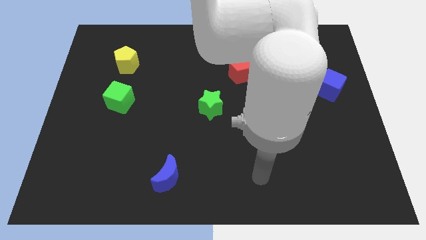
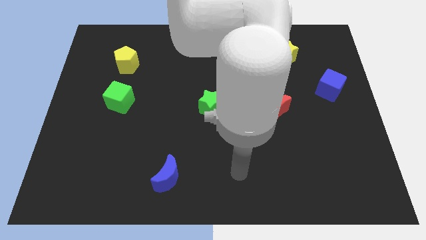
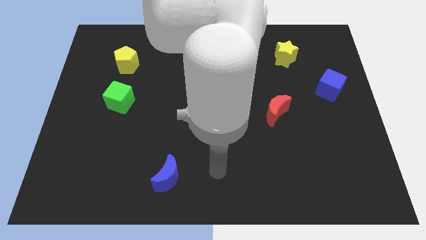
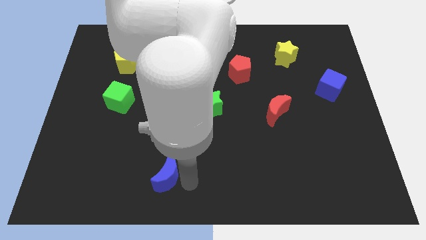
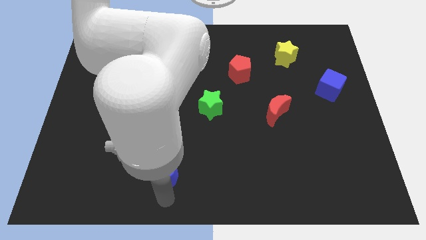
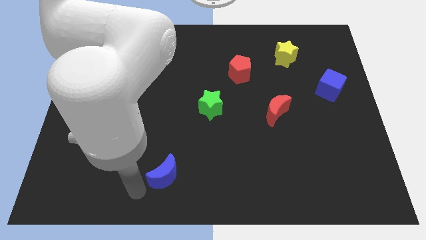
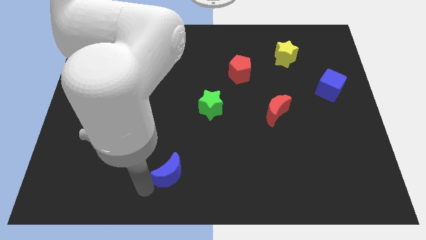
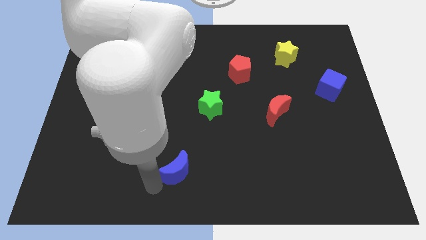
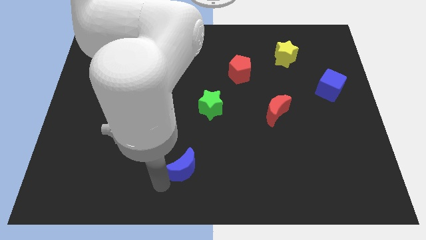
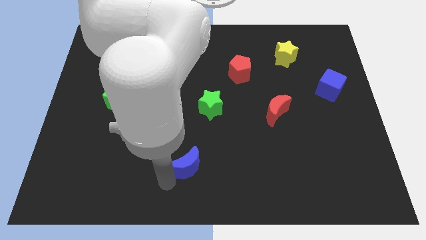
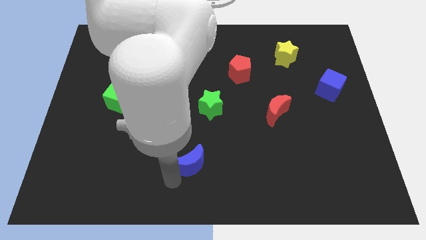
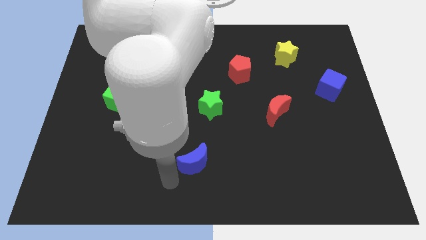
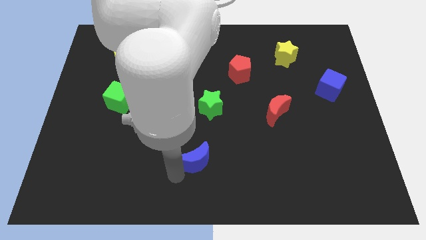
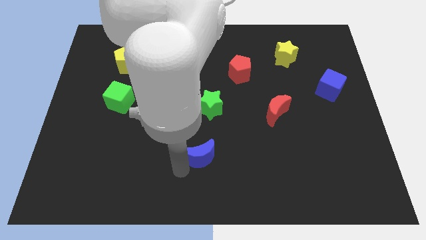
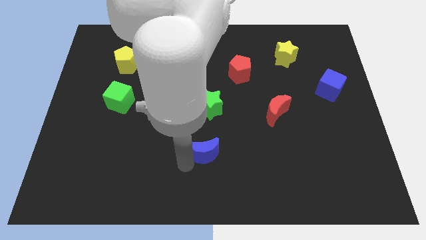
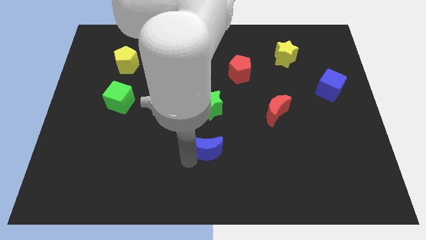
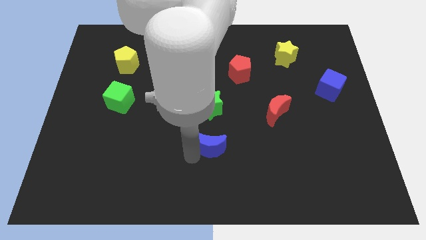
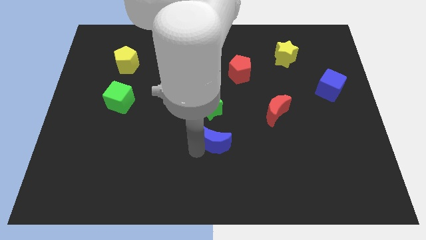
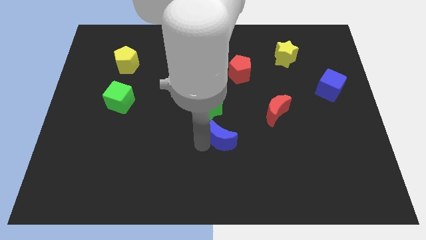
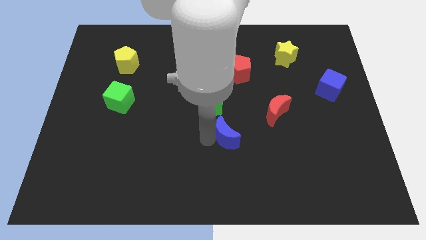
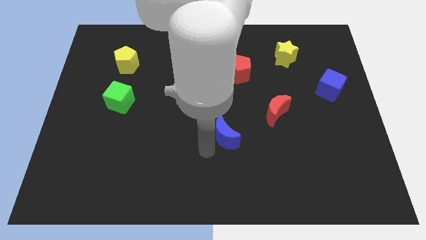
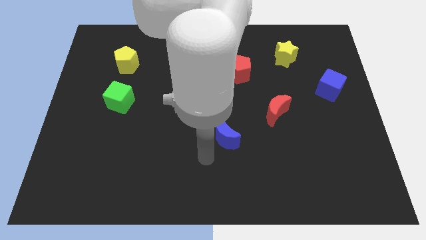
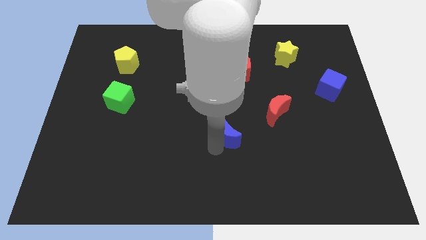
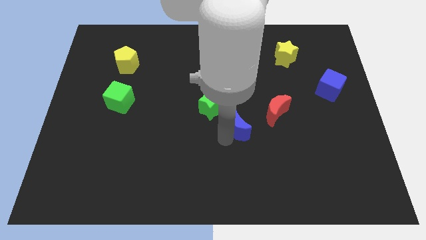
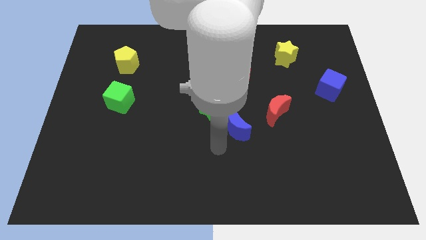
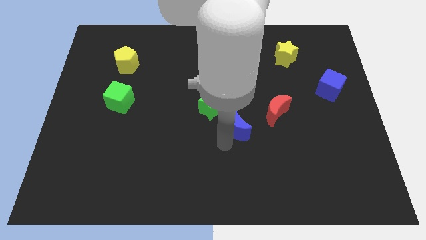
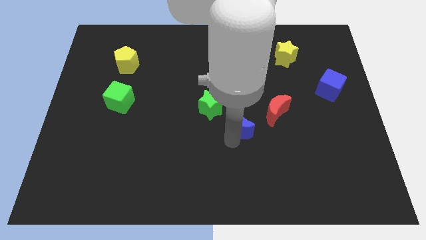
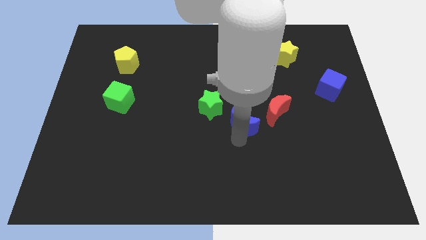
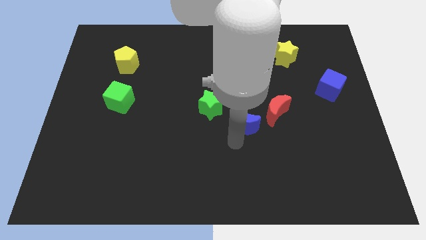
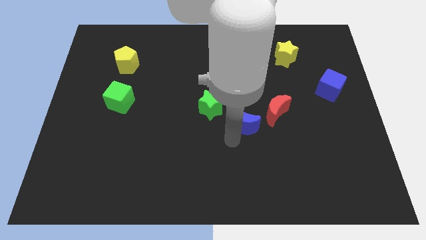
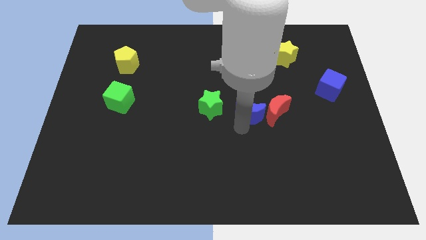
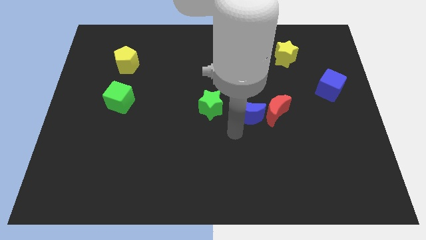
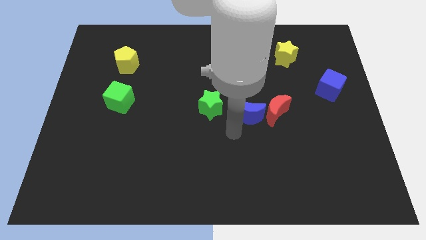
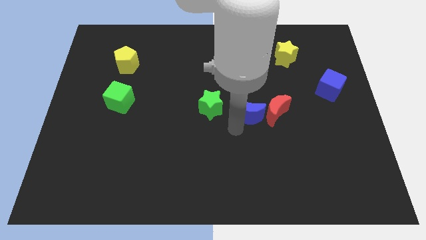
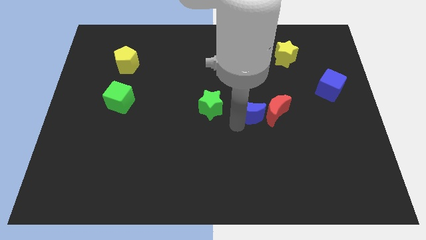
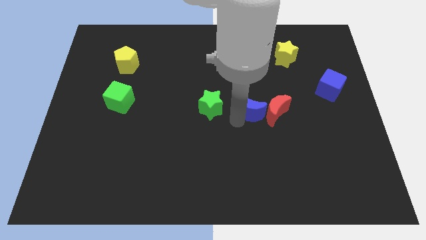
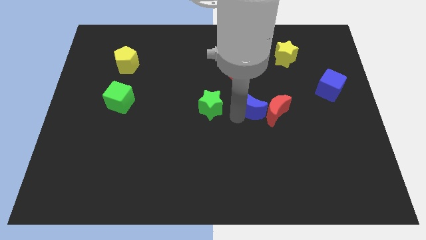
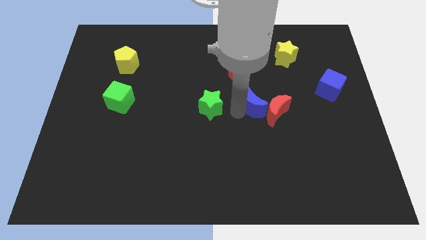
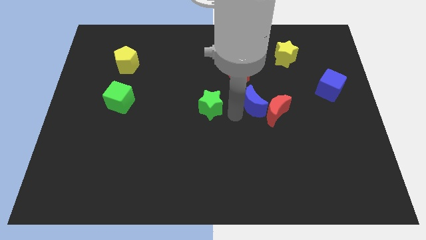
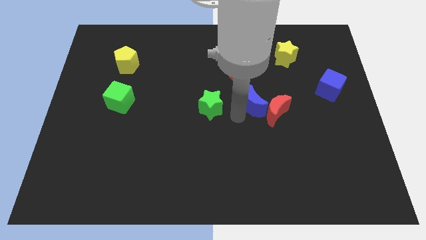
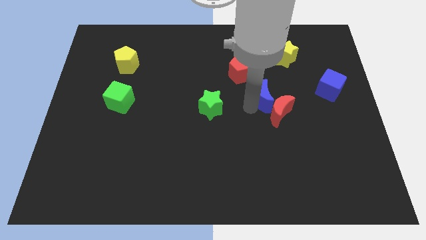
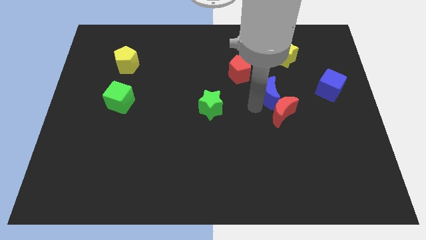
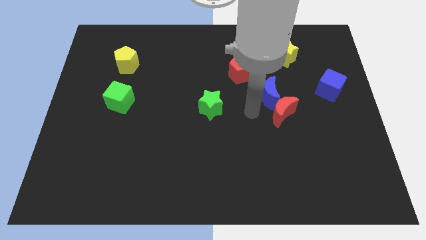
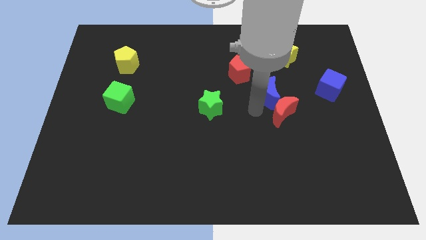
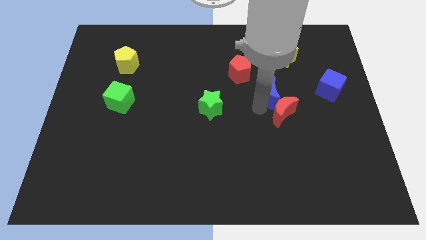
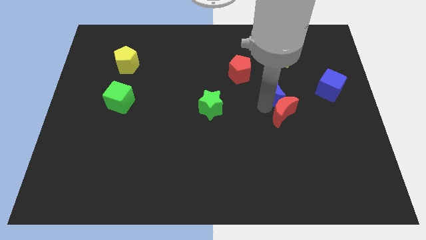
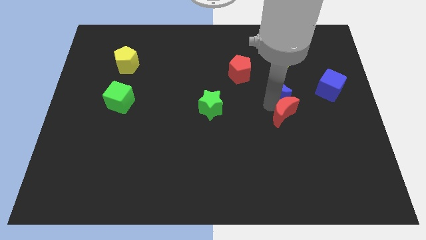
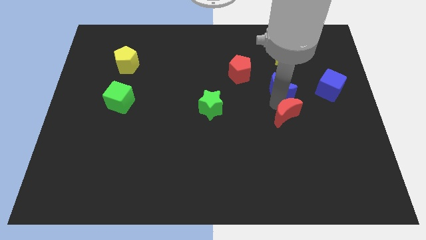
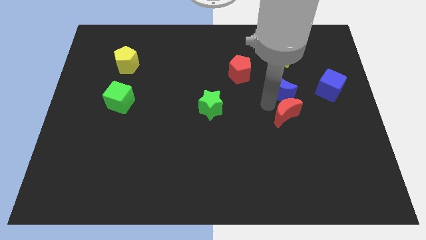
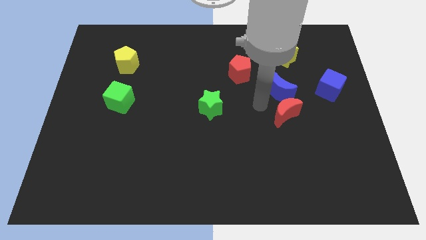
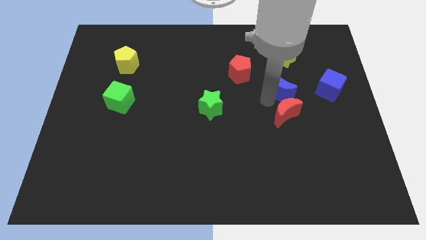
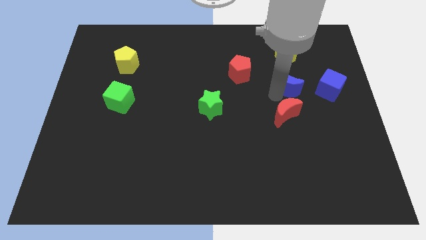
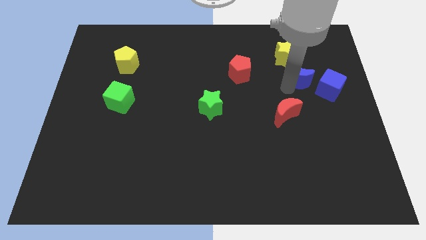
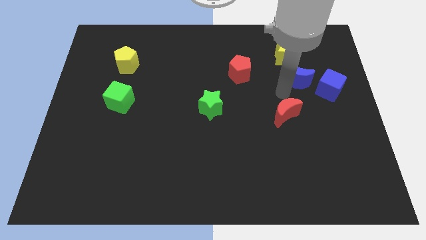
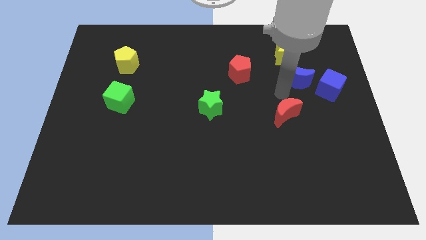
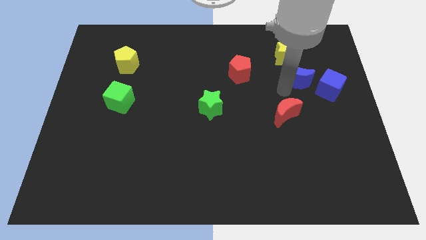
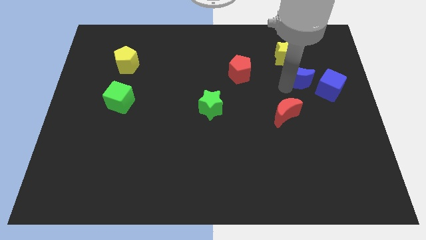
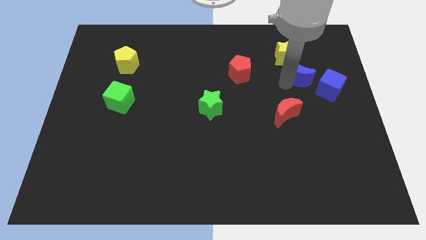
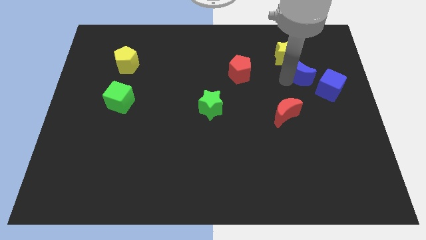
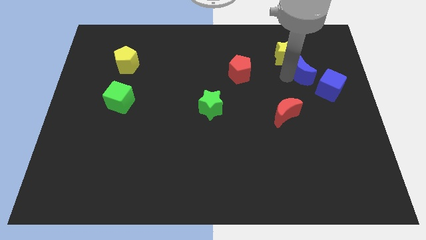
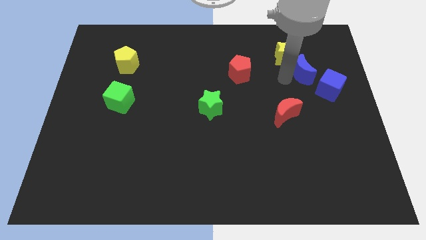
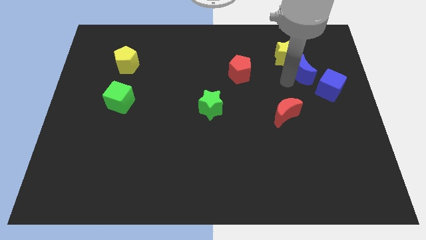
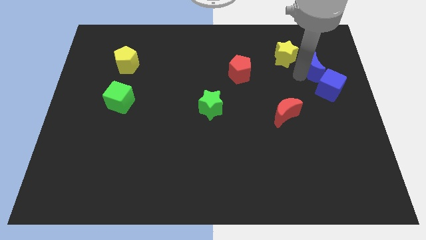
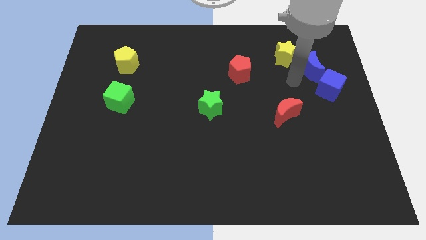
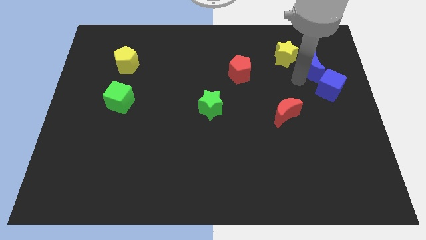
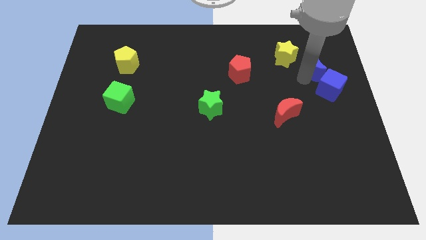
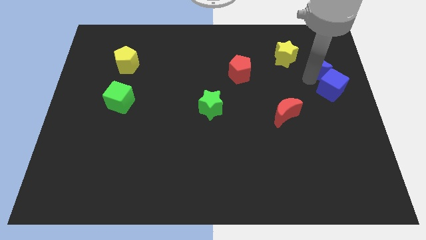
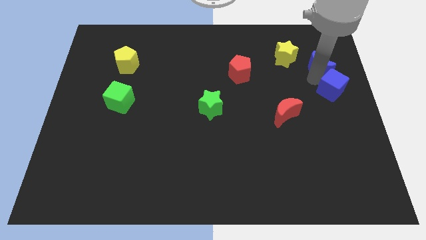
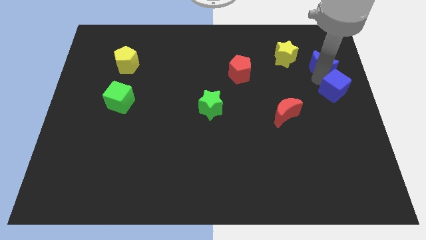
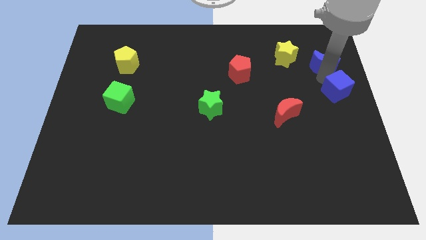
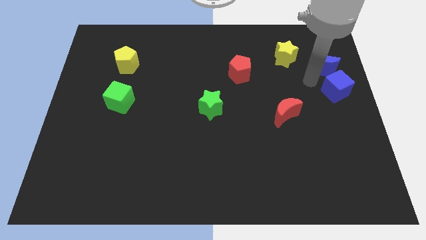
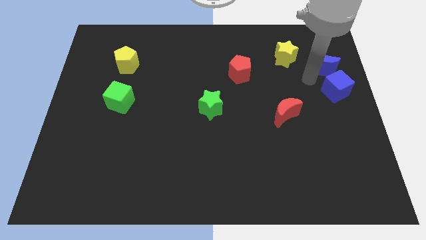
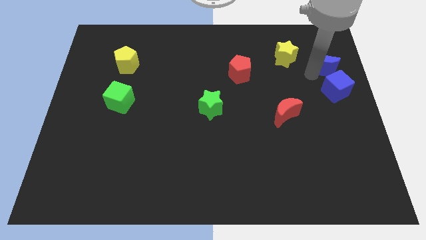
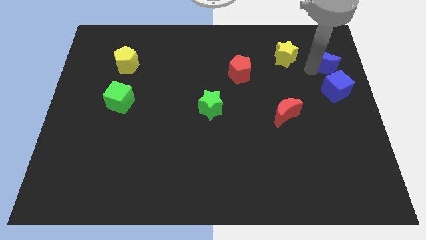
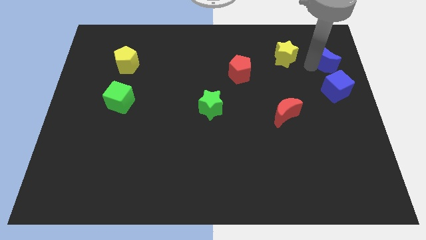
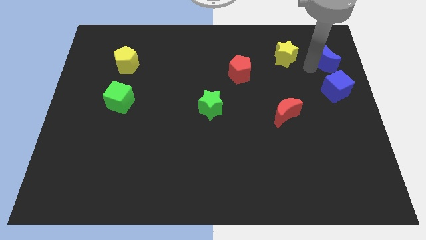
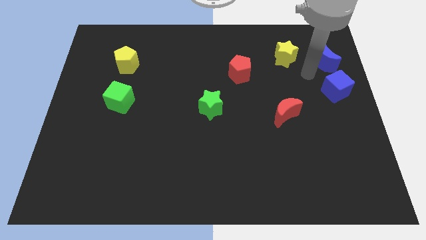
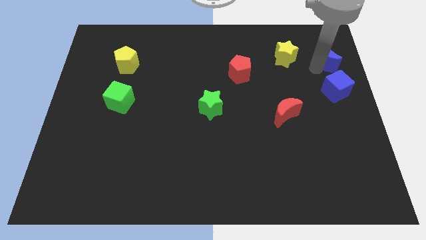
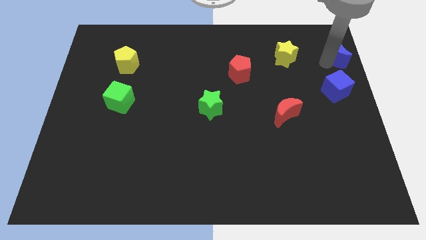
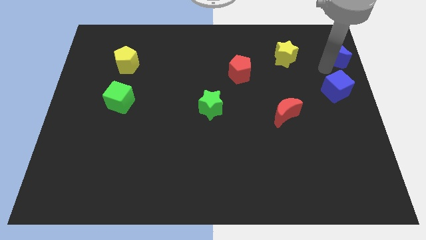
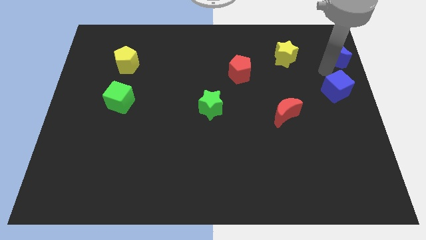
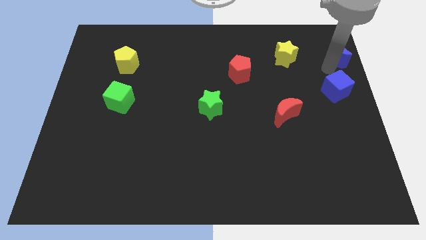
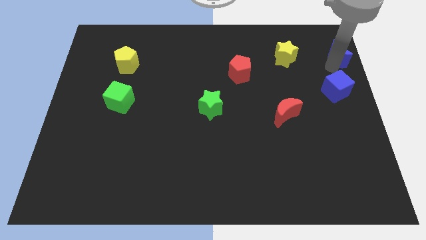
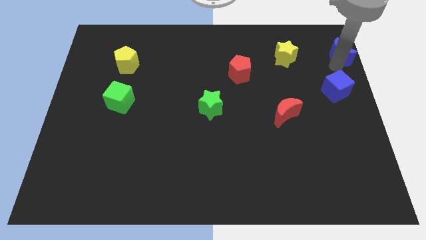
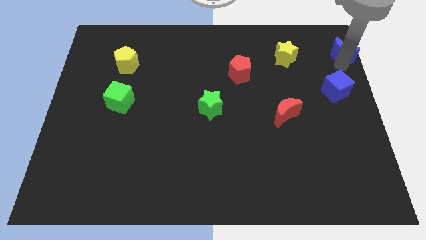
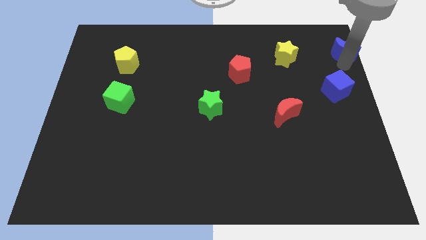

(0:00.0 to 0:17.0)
put the blue moon to the top right corner
